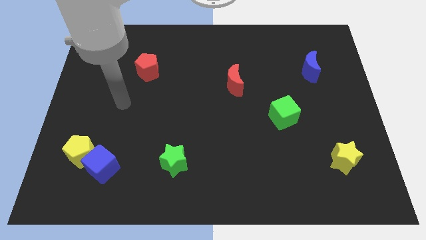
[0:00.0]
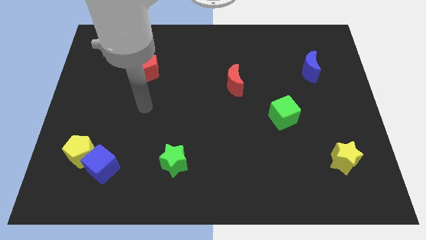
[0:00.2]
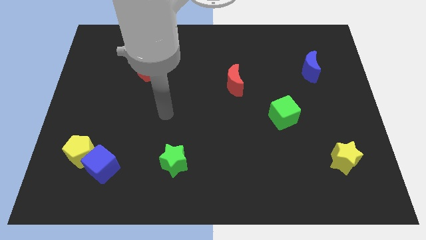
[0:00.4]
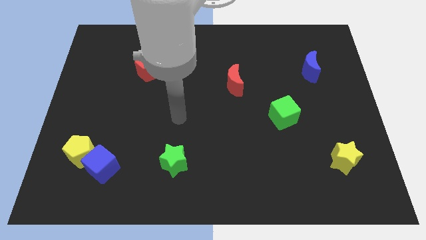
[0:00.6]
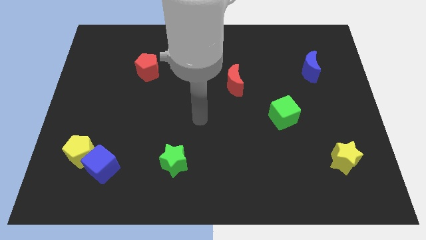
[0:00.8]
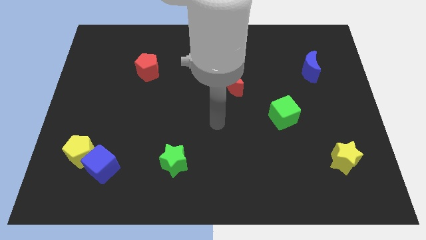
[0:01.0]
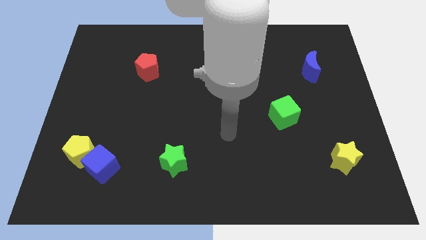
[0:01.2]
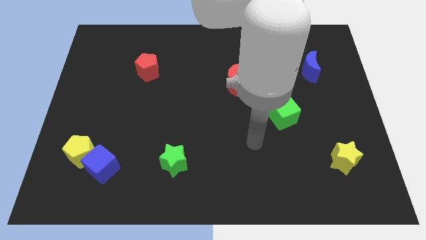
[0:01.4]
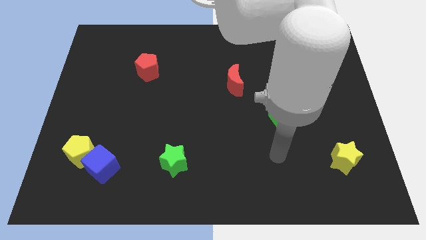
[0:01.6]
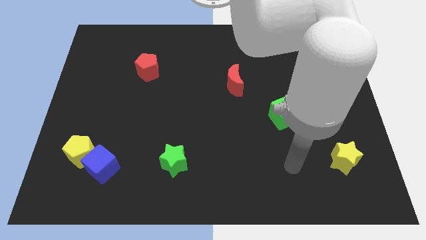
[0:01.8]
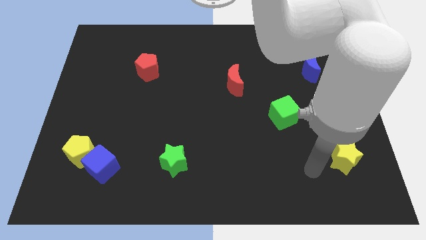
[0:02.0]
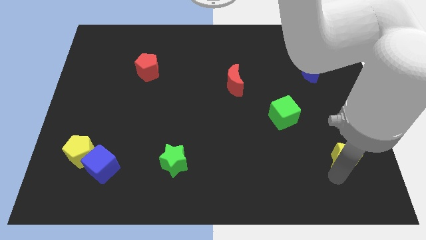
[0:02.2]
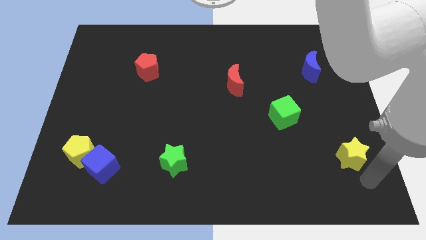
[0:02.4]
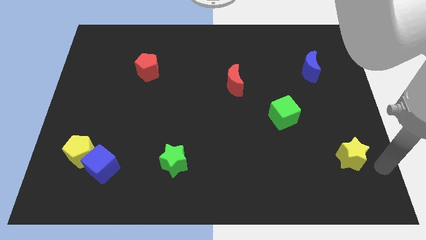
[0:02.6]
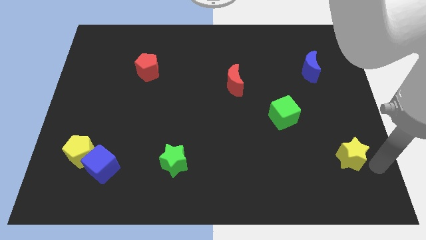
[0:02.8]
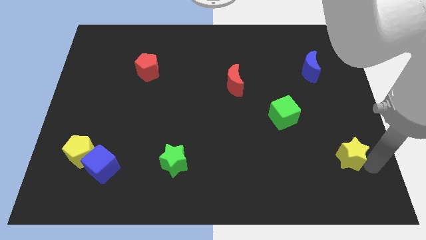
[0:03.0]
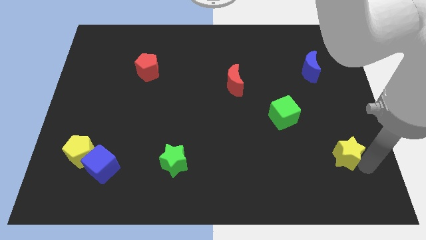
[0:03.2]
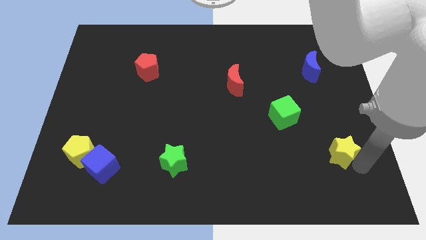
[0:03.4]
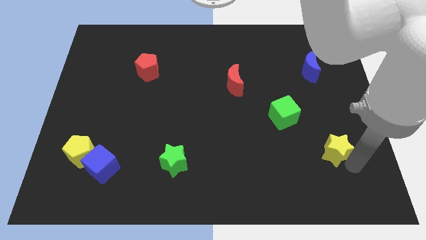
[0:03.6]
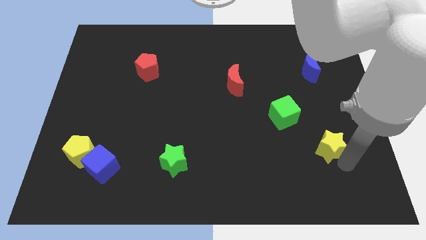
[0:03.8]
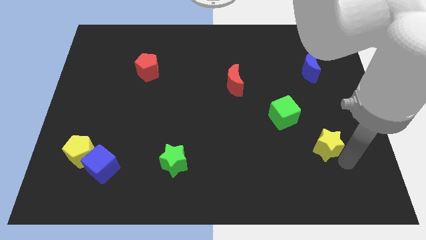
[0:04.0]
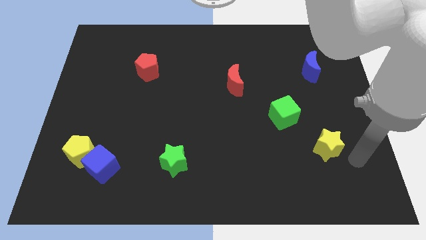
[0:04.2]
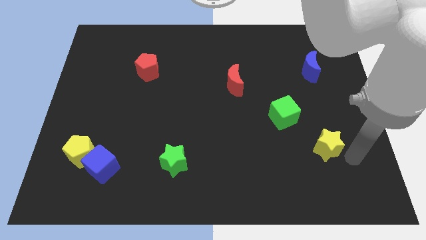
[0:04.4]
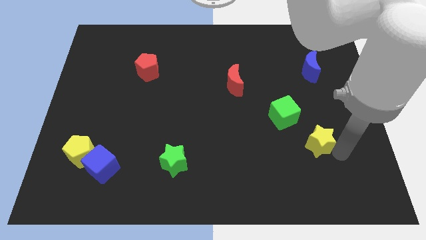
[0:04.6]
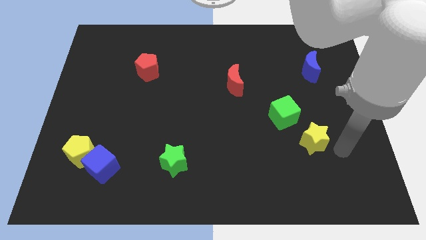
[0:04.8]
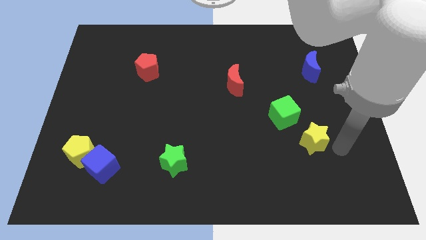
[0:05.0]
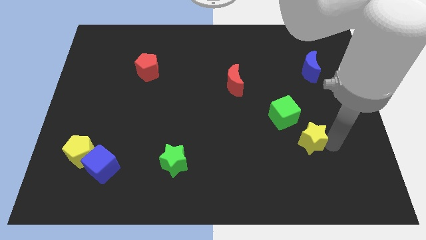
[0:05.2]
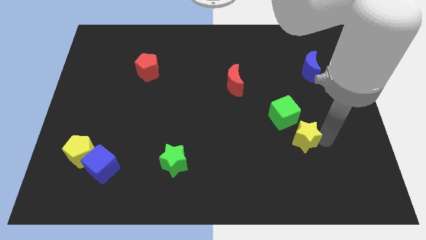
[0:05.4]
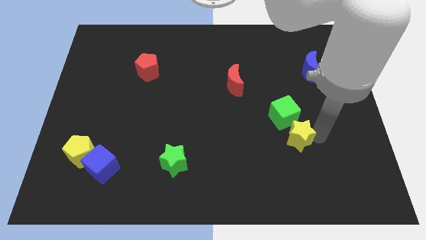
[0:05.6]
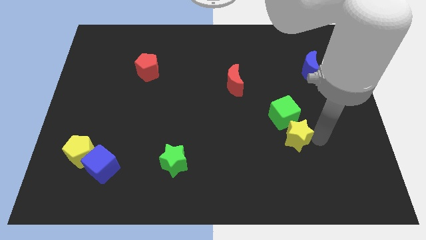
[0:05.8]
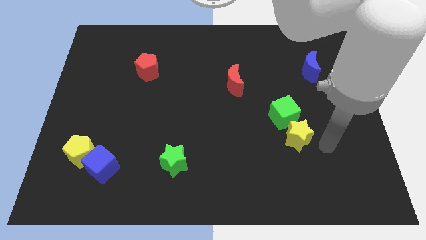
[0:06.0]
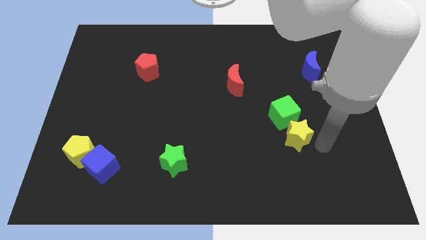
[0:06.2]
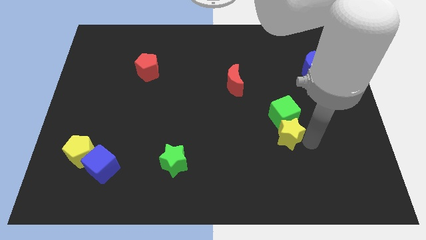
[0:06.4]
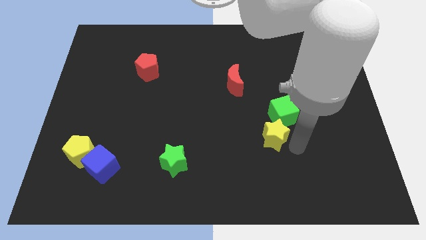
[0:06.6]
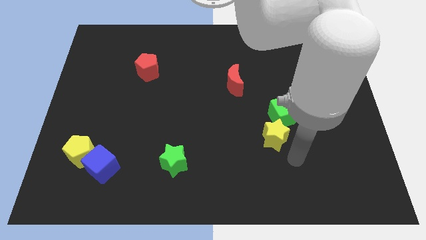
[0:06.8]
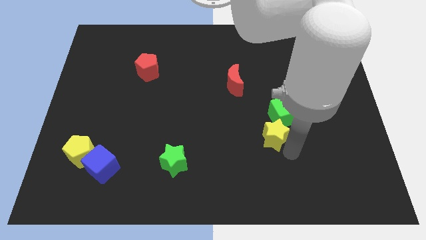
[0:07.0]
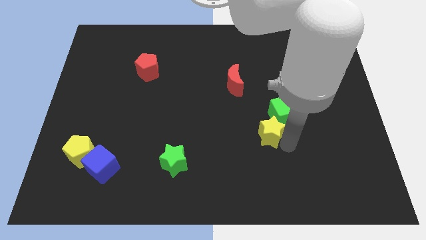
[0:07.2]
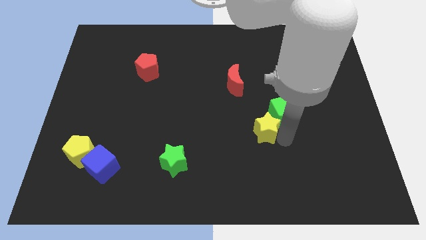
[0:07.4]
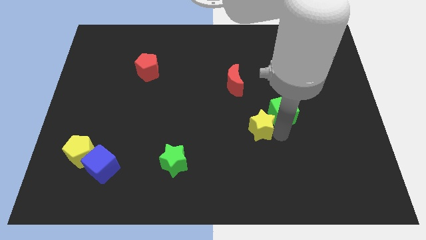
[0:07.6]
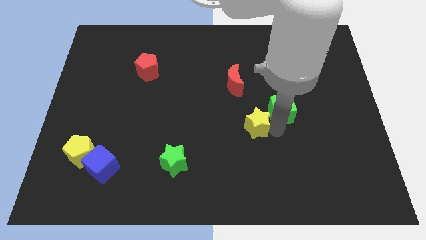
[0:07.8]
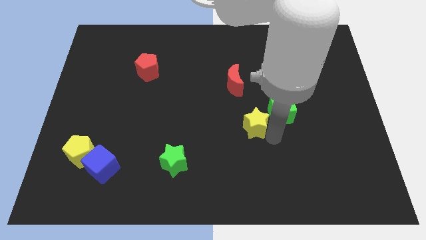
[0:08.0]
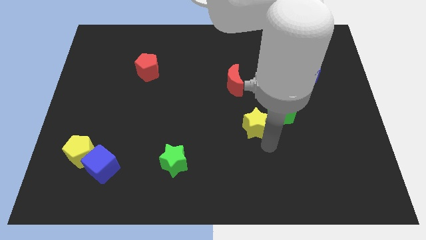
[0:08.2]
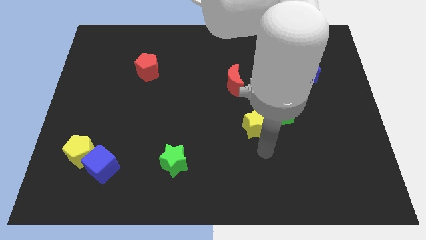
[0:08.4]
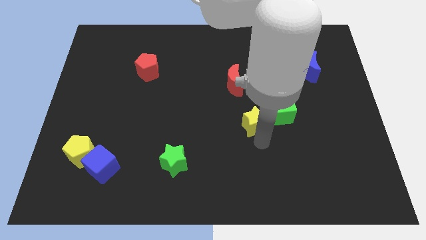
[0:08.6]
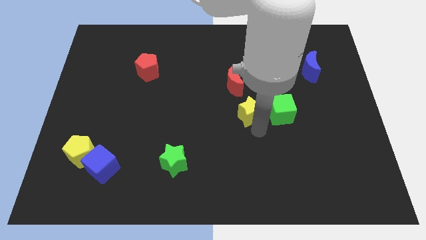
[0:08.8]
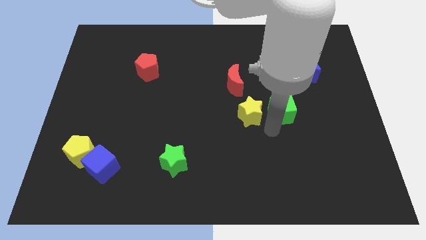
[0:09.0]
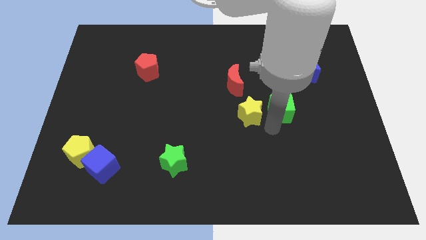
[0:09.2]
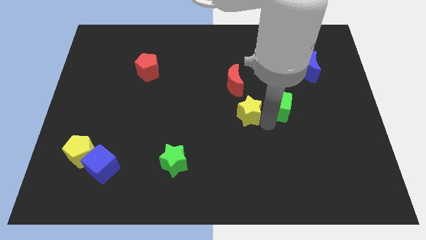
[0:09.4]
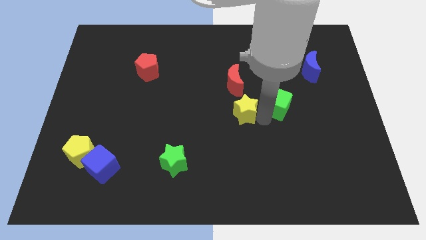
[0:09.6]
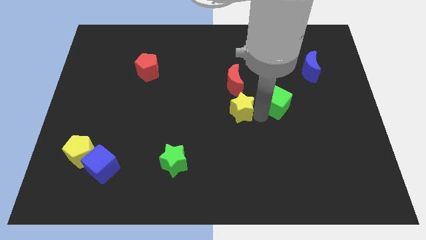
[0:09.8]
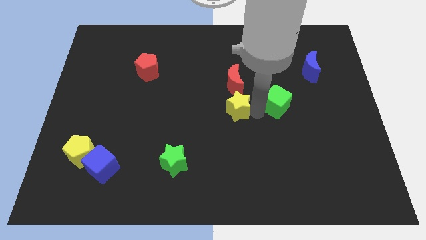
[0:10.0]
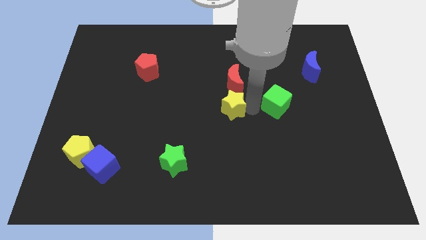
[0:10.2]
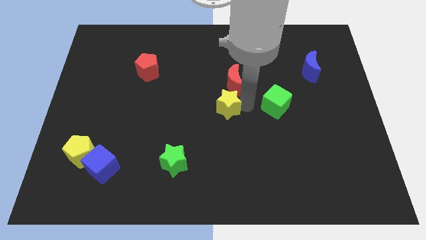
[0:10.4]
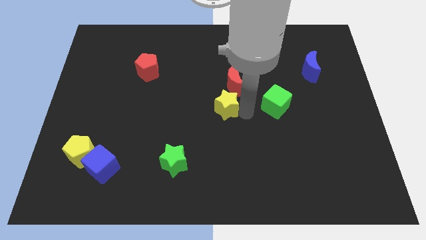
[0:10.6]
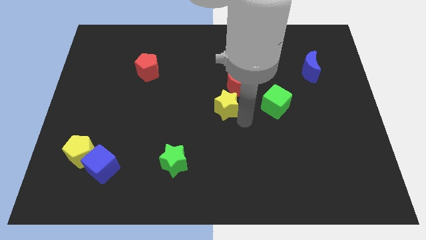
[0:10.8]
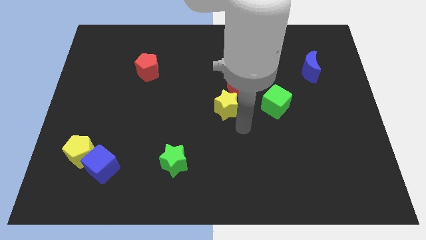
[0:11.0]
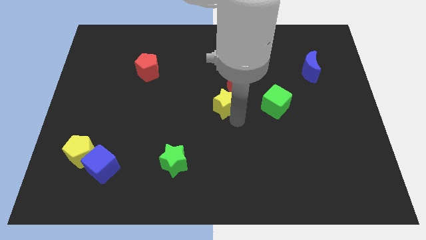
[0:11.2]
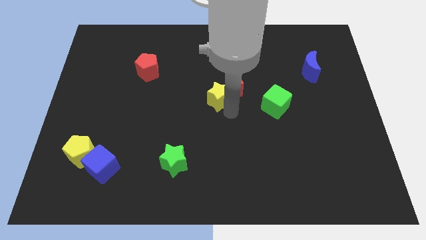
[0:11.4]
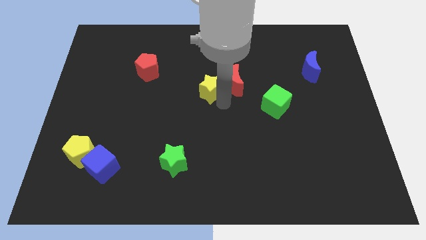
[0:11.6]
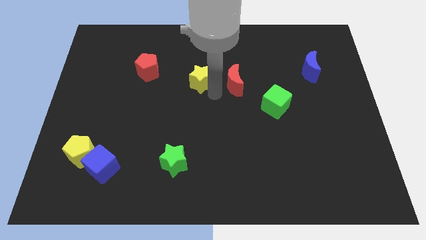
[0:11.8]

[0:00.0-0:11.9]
put the yellow star to the right of the red pentagon

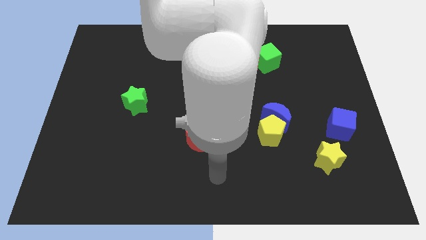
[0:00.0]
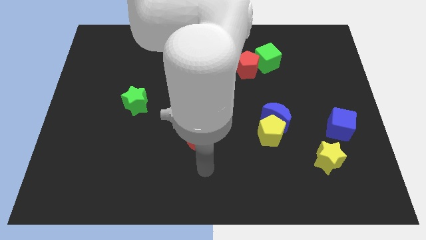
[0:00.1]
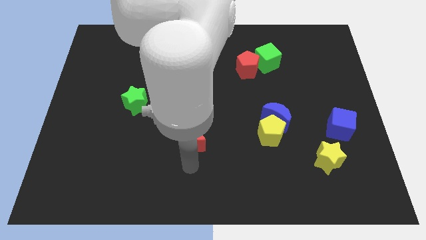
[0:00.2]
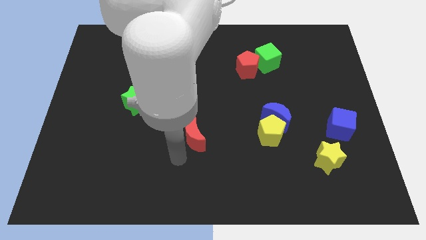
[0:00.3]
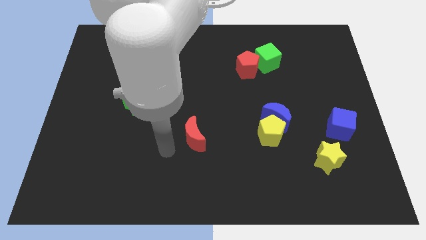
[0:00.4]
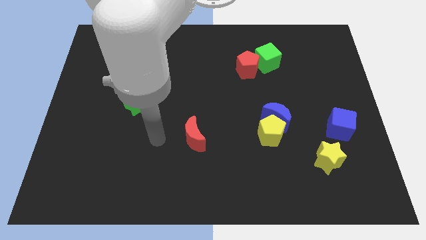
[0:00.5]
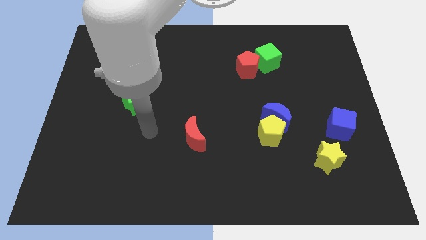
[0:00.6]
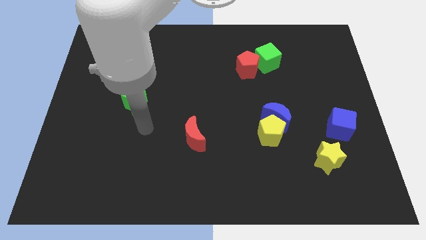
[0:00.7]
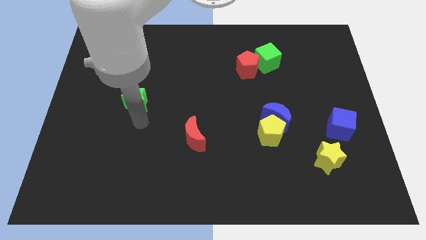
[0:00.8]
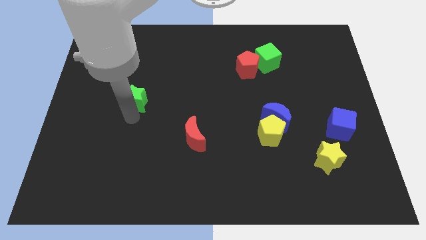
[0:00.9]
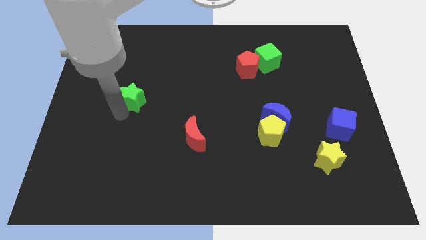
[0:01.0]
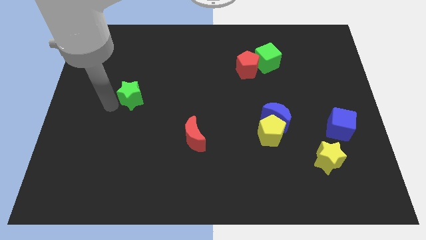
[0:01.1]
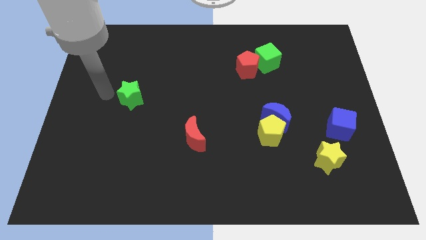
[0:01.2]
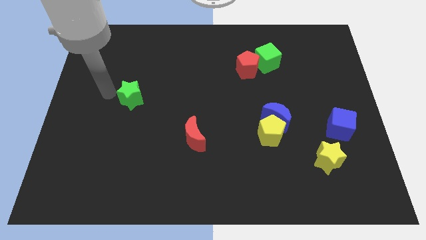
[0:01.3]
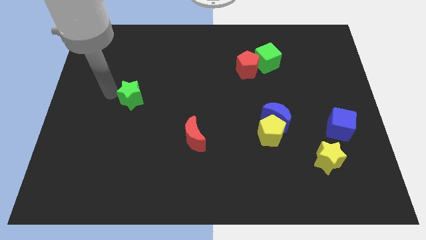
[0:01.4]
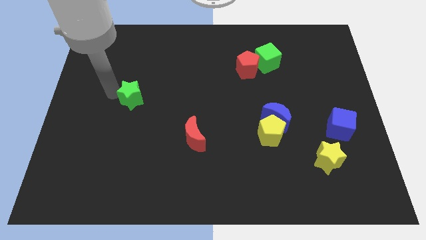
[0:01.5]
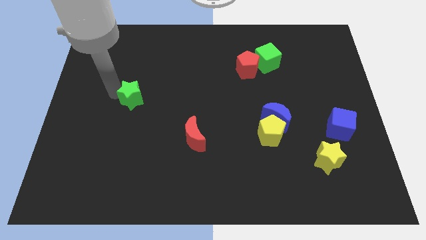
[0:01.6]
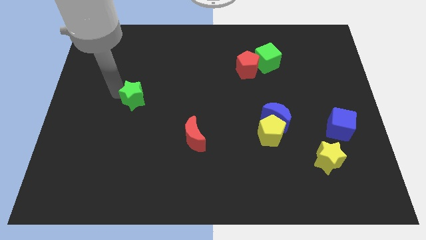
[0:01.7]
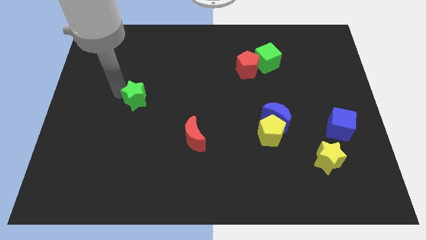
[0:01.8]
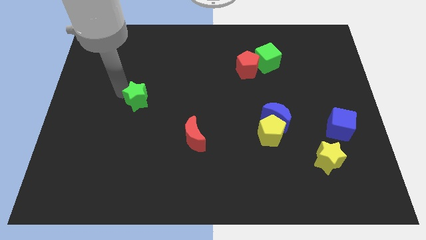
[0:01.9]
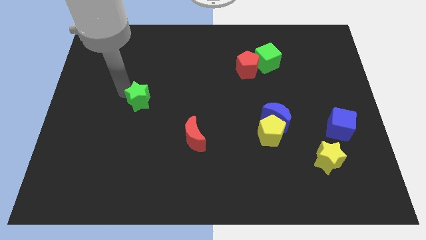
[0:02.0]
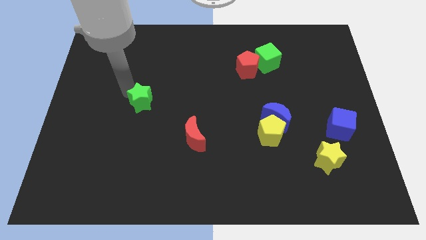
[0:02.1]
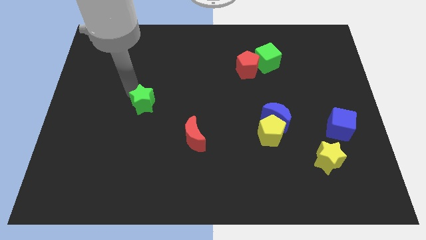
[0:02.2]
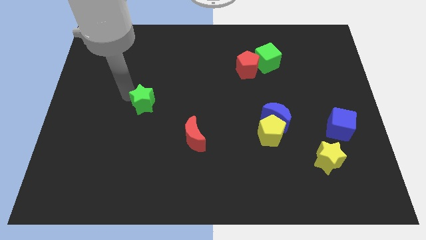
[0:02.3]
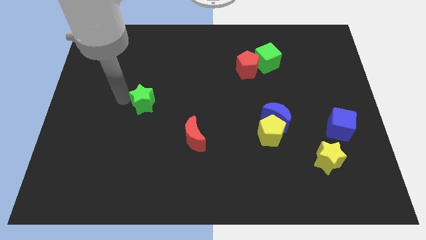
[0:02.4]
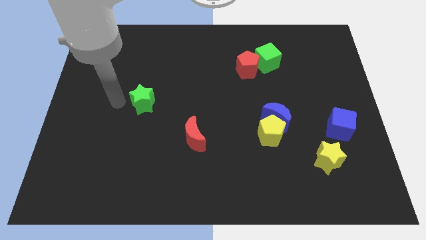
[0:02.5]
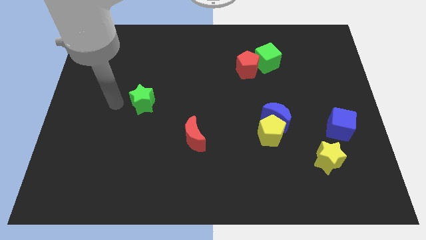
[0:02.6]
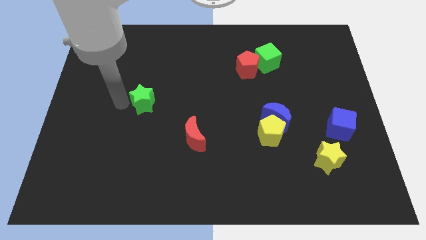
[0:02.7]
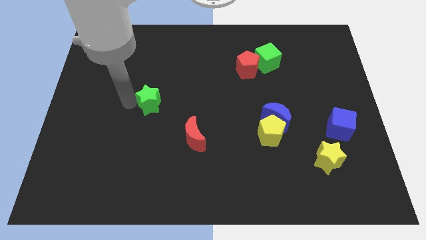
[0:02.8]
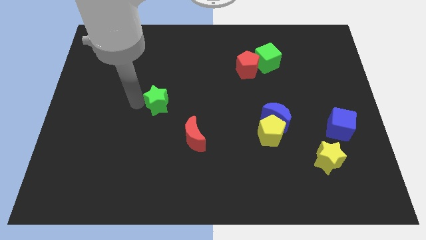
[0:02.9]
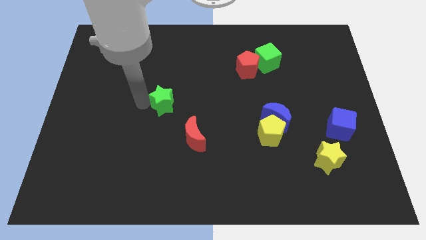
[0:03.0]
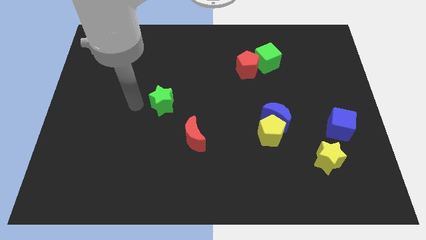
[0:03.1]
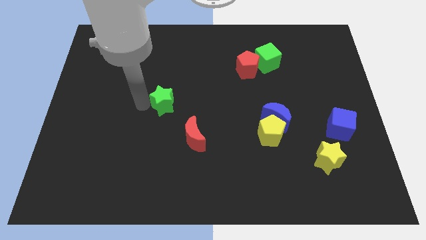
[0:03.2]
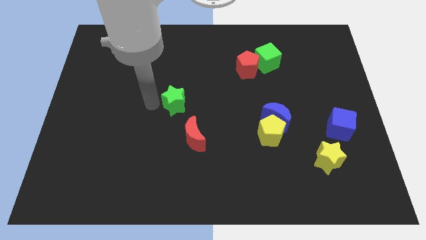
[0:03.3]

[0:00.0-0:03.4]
slide the green star above the red moon
